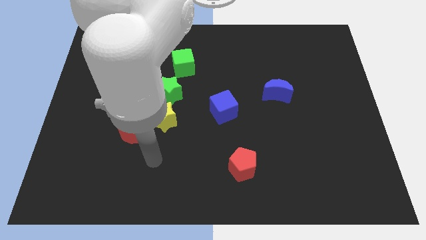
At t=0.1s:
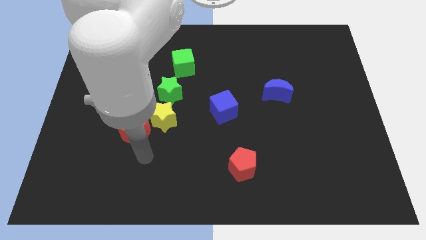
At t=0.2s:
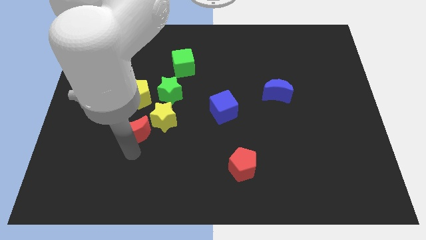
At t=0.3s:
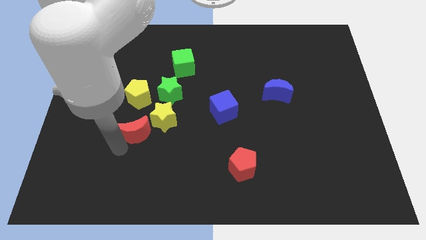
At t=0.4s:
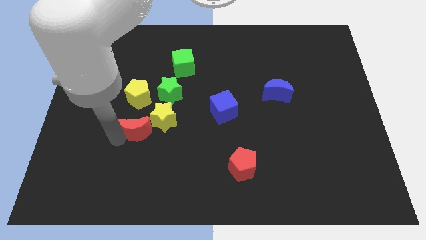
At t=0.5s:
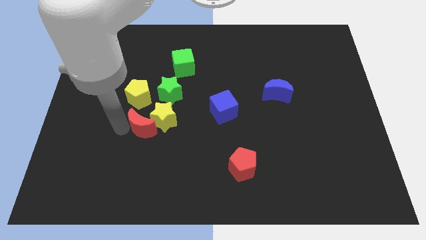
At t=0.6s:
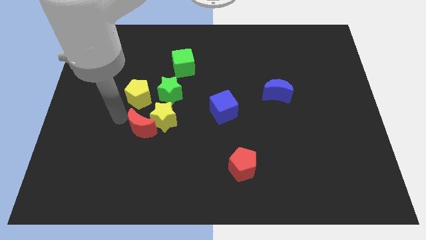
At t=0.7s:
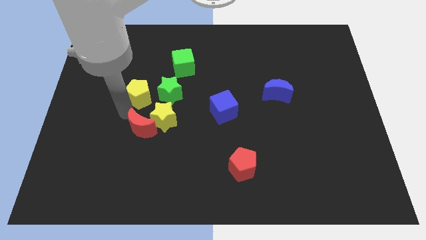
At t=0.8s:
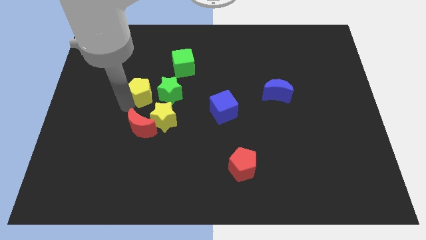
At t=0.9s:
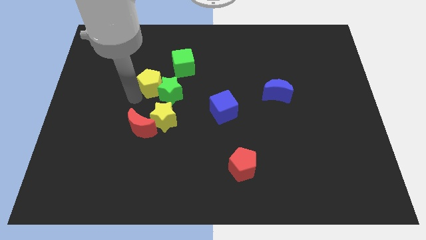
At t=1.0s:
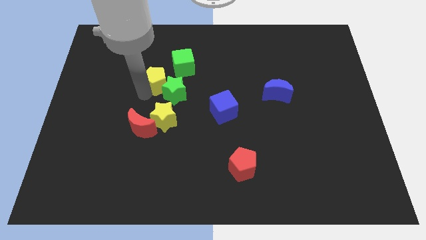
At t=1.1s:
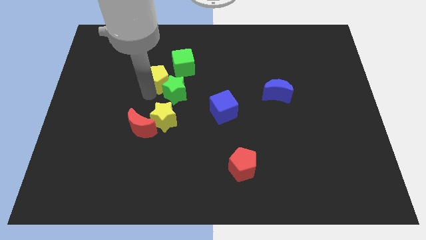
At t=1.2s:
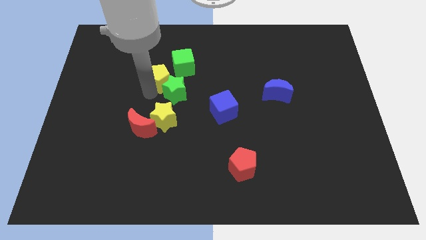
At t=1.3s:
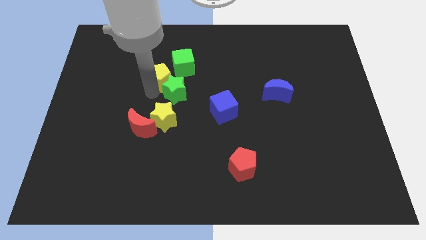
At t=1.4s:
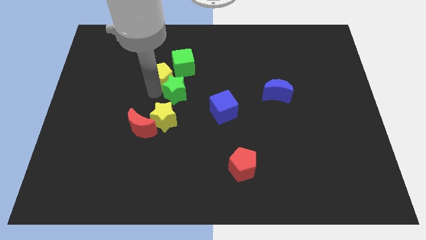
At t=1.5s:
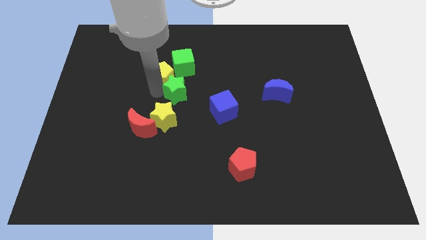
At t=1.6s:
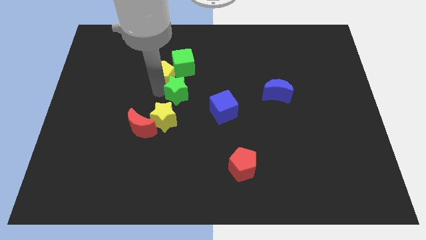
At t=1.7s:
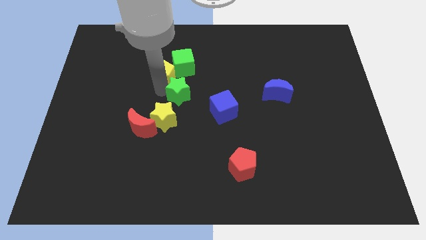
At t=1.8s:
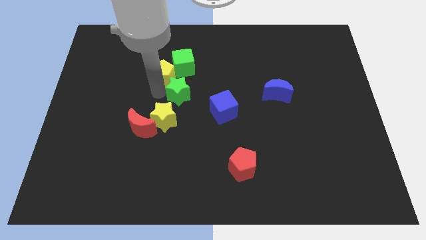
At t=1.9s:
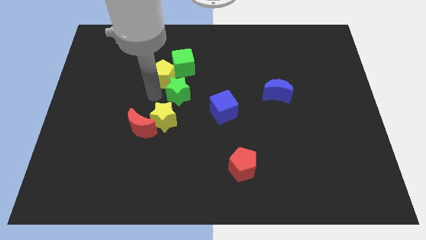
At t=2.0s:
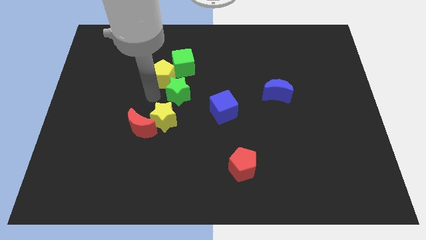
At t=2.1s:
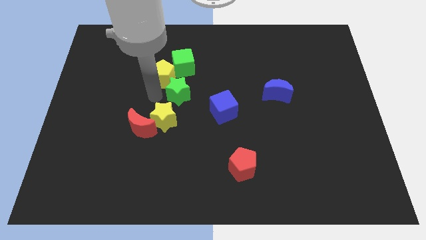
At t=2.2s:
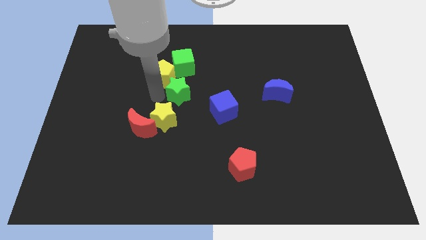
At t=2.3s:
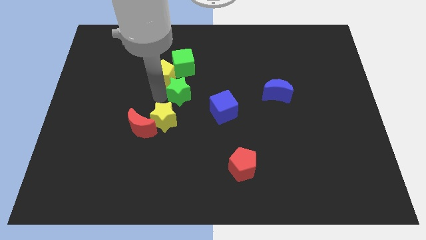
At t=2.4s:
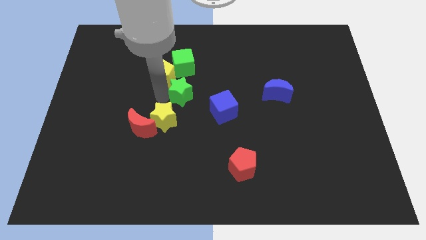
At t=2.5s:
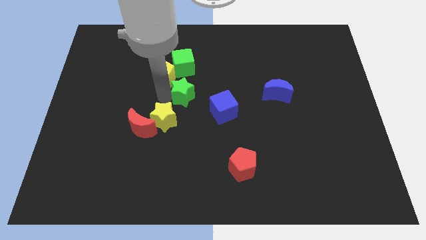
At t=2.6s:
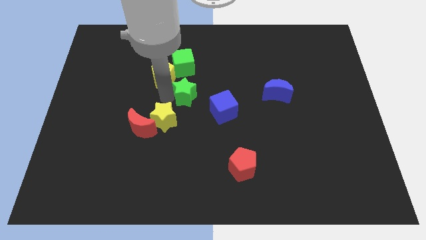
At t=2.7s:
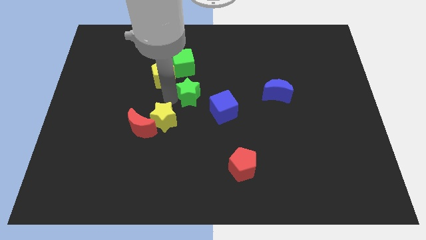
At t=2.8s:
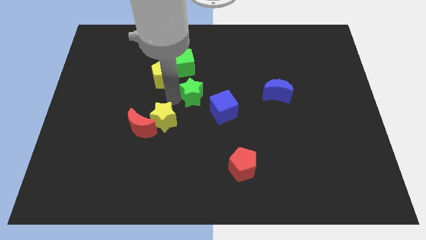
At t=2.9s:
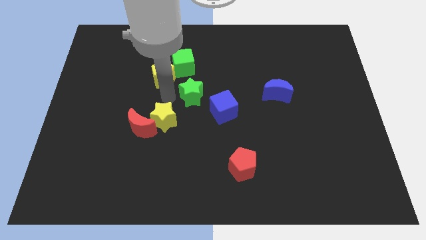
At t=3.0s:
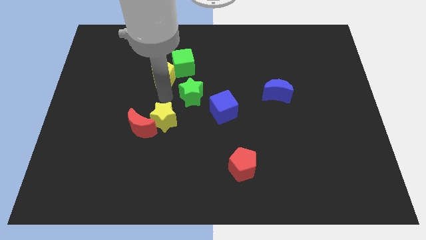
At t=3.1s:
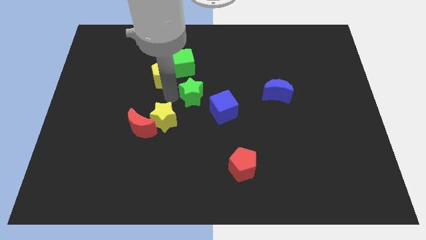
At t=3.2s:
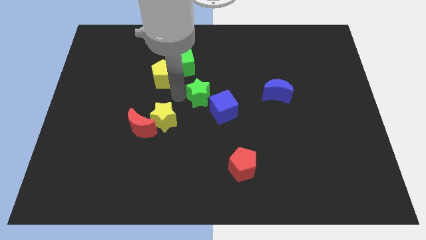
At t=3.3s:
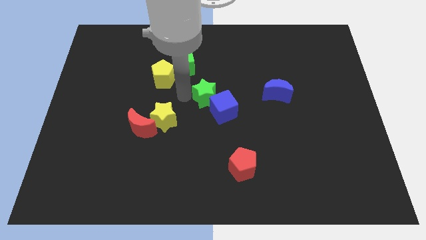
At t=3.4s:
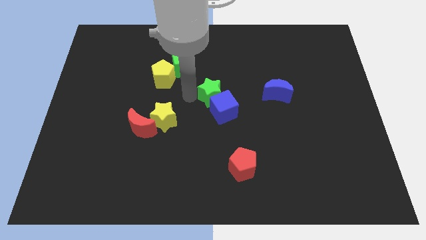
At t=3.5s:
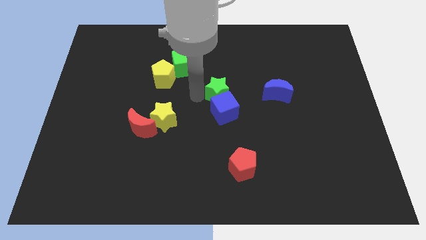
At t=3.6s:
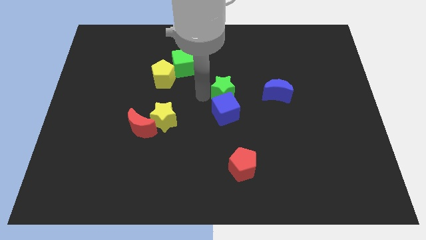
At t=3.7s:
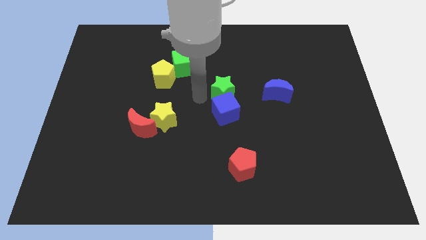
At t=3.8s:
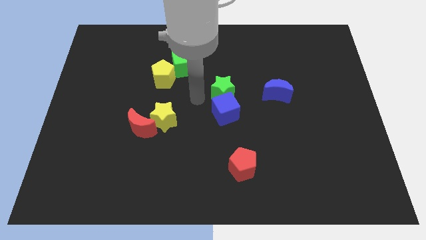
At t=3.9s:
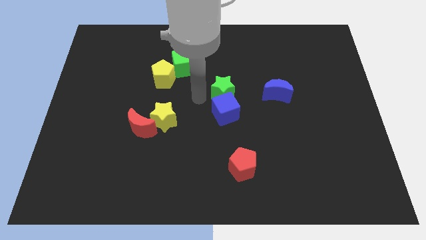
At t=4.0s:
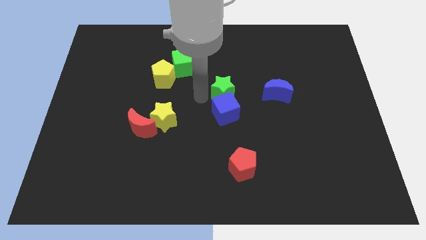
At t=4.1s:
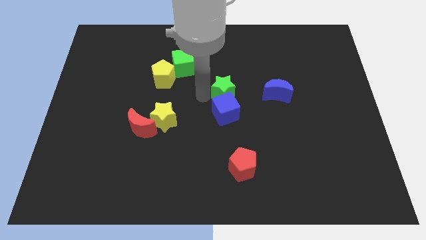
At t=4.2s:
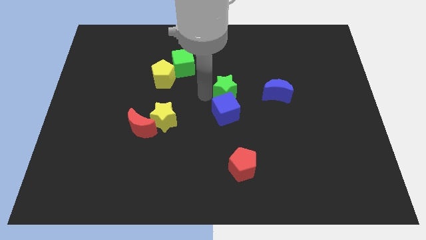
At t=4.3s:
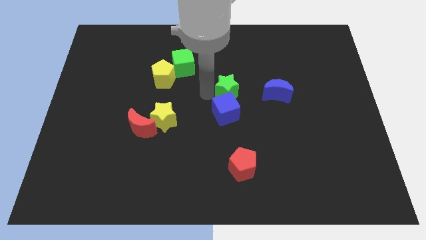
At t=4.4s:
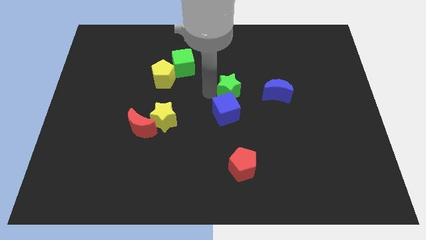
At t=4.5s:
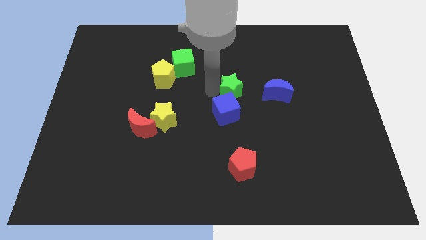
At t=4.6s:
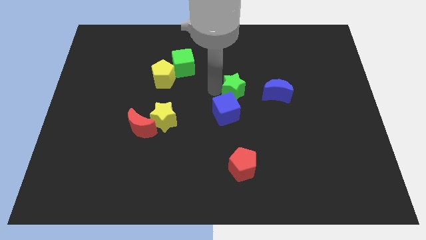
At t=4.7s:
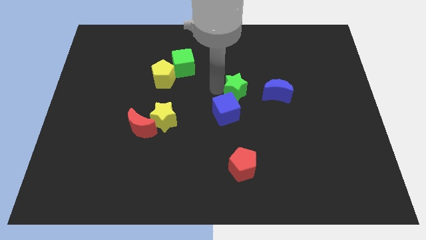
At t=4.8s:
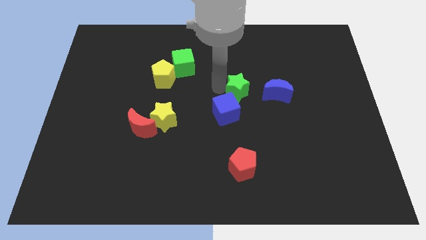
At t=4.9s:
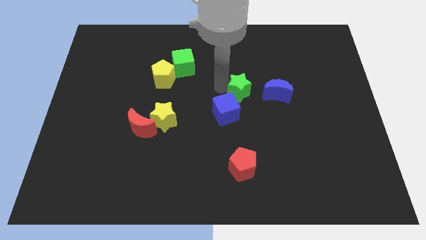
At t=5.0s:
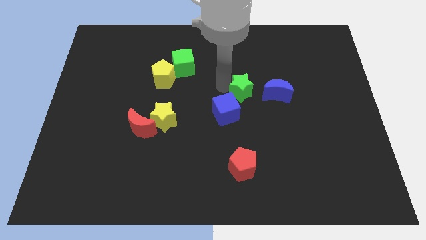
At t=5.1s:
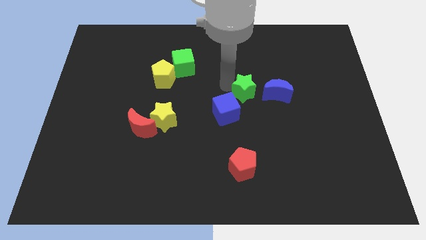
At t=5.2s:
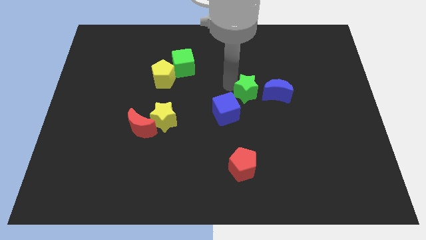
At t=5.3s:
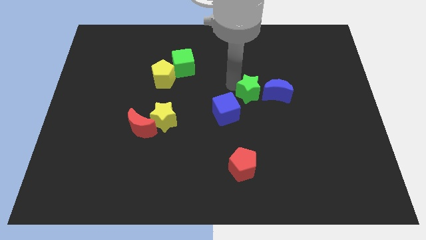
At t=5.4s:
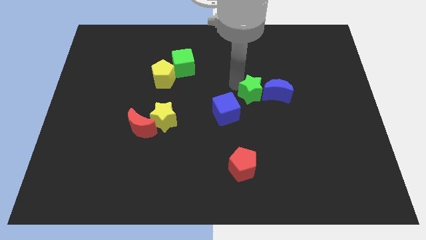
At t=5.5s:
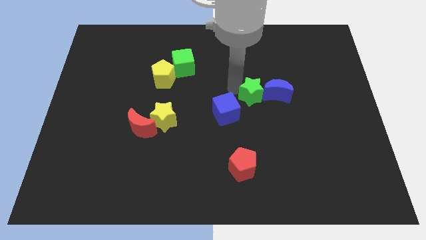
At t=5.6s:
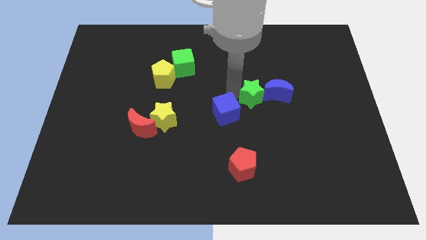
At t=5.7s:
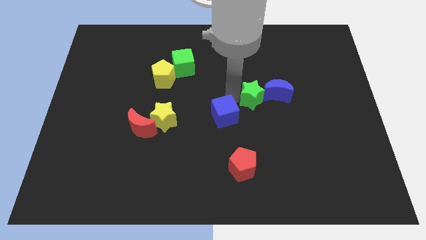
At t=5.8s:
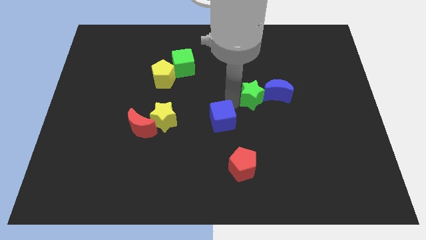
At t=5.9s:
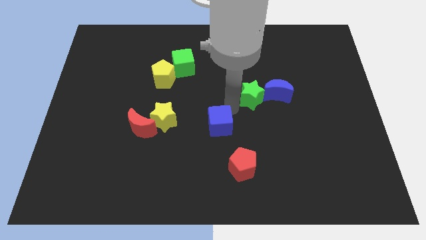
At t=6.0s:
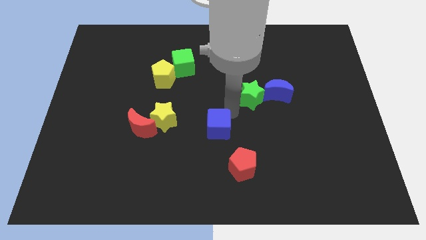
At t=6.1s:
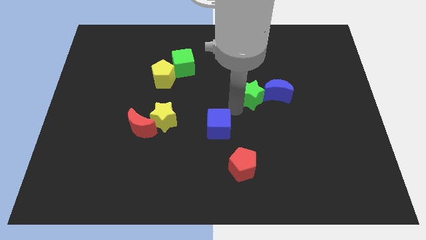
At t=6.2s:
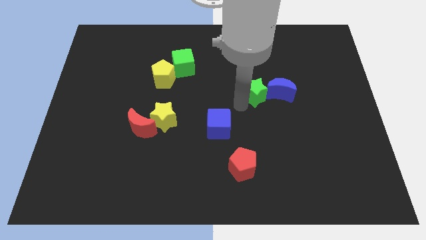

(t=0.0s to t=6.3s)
slide the green star right

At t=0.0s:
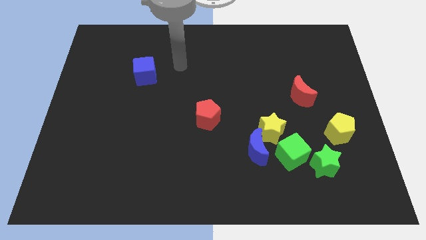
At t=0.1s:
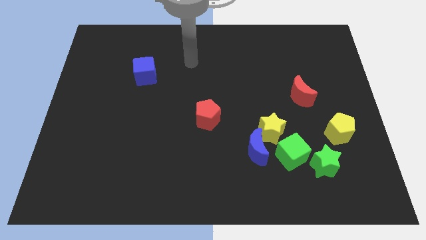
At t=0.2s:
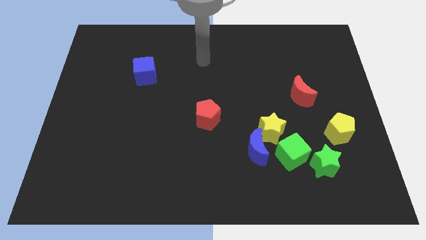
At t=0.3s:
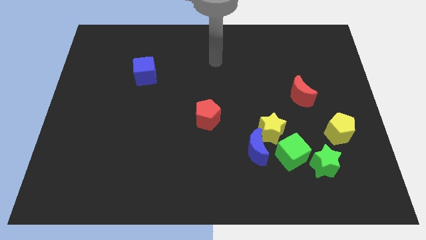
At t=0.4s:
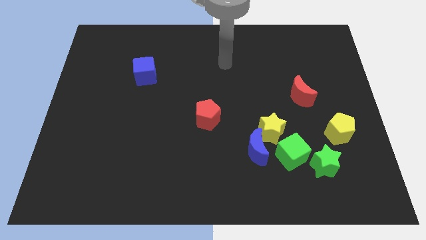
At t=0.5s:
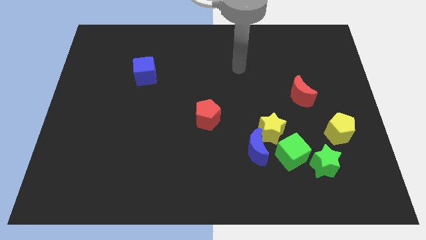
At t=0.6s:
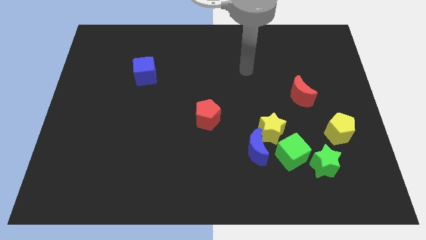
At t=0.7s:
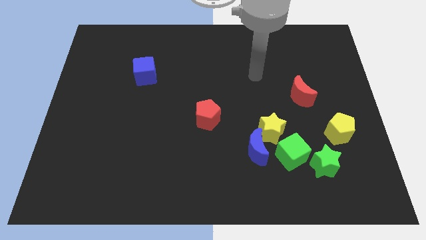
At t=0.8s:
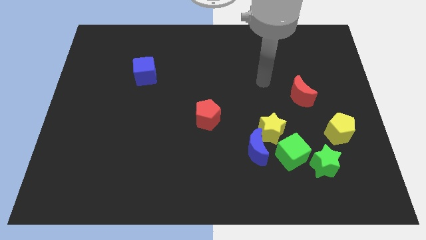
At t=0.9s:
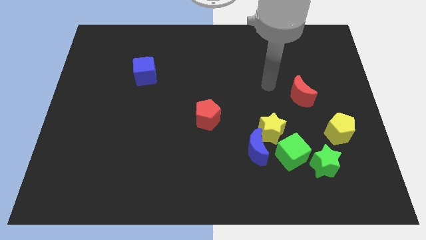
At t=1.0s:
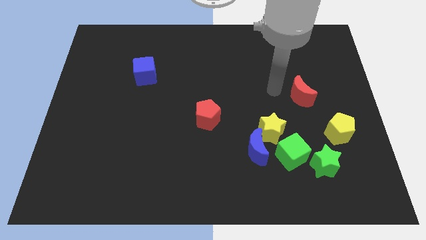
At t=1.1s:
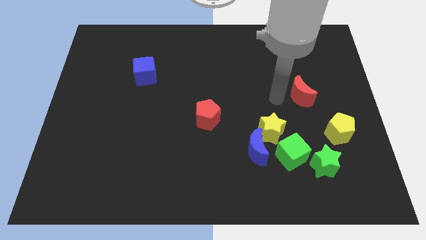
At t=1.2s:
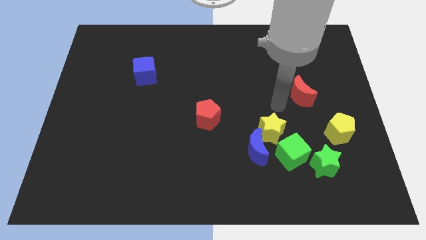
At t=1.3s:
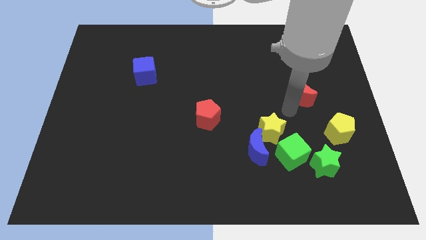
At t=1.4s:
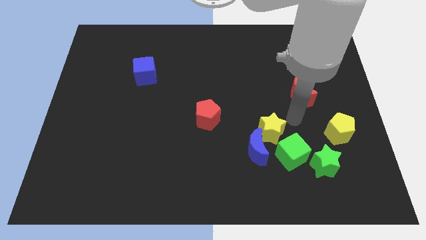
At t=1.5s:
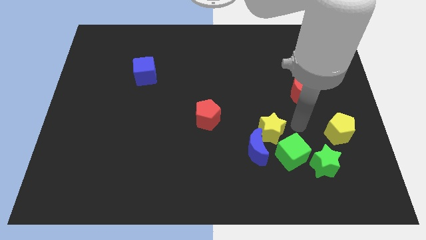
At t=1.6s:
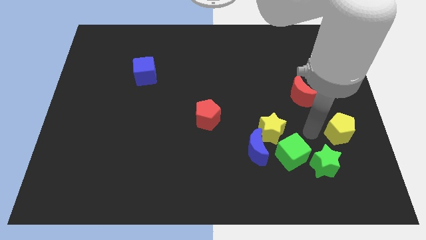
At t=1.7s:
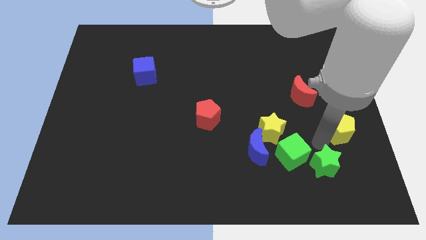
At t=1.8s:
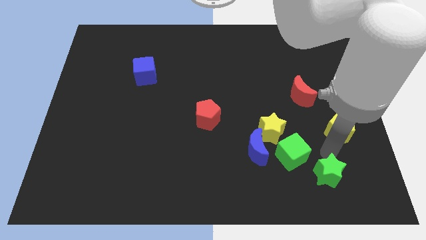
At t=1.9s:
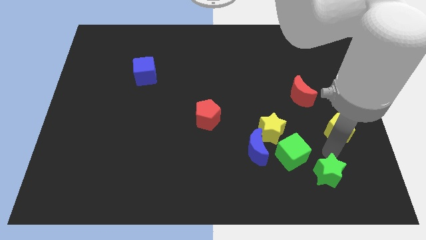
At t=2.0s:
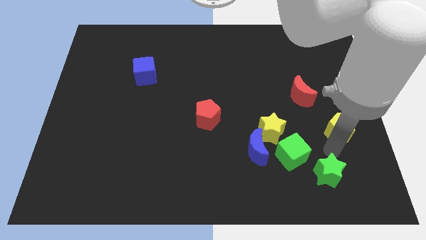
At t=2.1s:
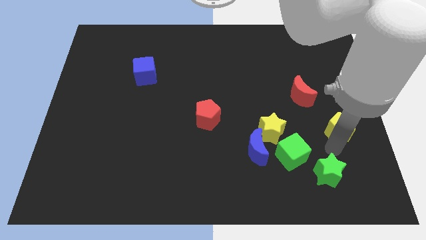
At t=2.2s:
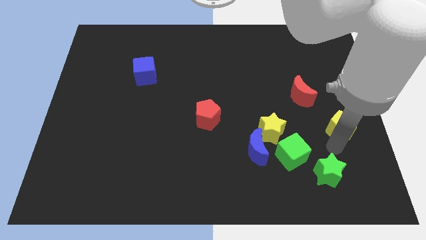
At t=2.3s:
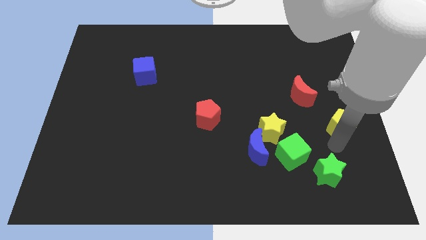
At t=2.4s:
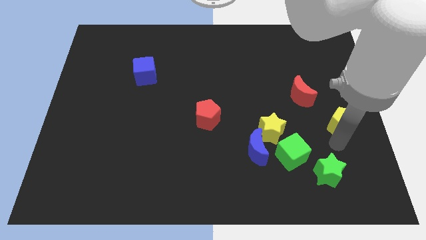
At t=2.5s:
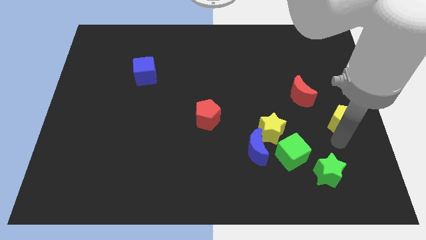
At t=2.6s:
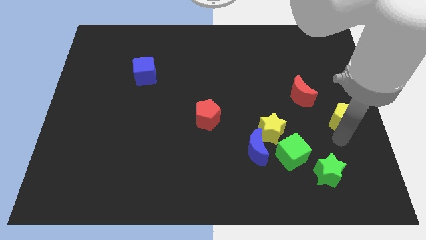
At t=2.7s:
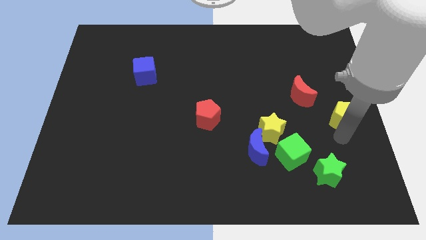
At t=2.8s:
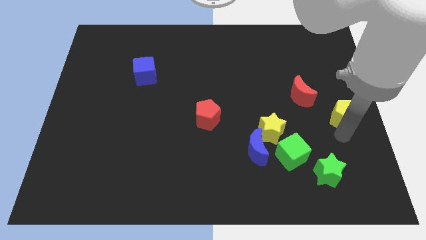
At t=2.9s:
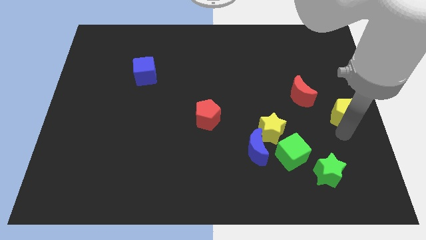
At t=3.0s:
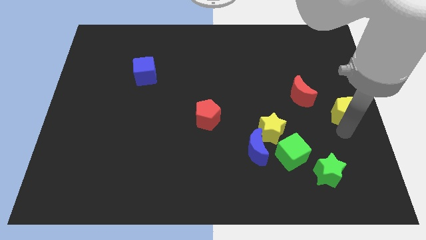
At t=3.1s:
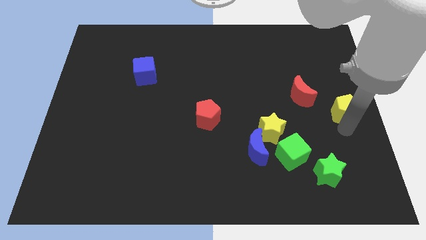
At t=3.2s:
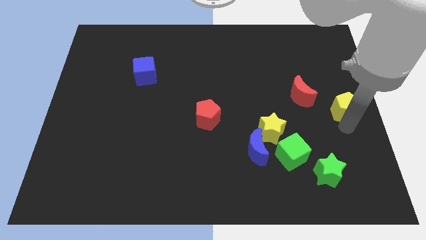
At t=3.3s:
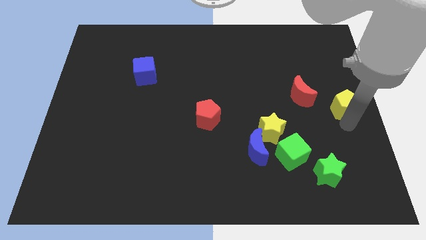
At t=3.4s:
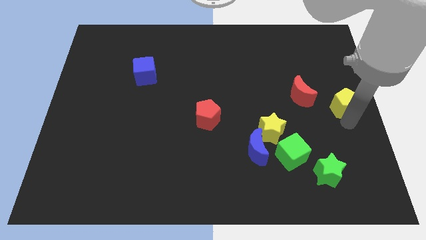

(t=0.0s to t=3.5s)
slightly move the yellow pentagon upwards
